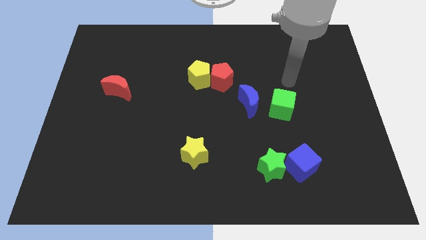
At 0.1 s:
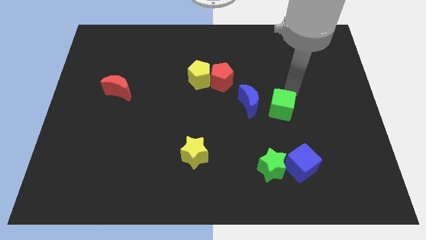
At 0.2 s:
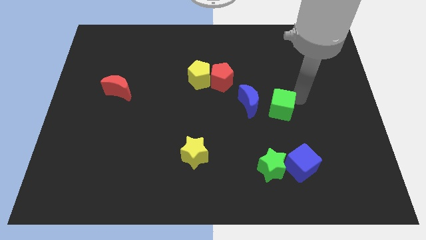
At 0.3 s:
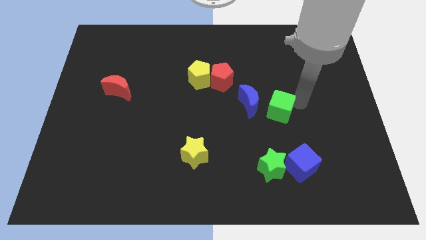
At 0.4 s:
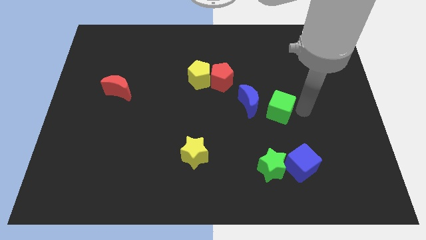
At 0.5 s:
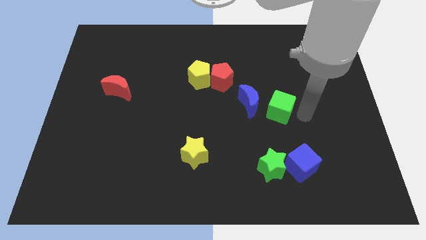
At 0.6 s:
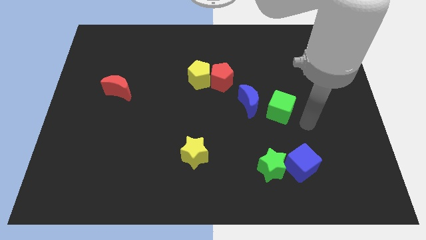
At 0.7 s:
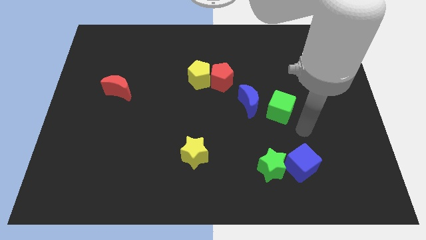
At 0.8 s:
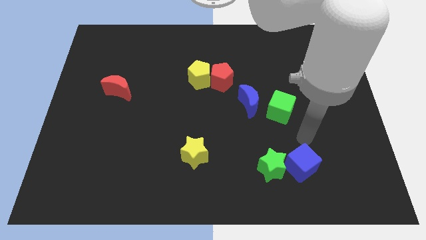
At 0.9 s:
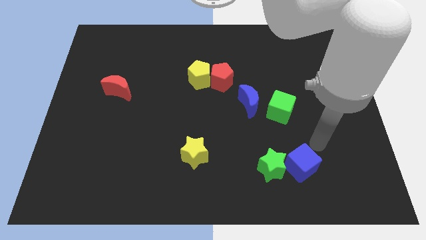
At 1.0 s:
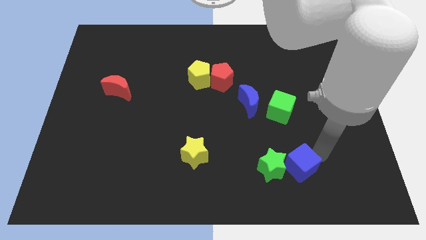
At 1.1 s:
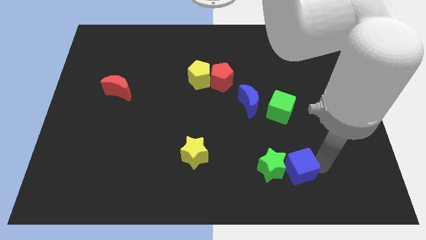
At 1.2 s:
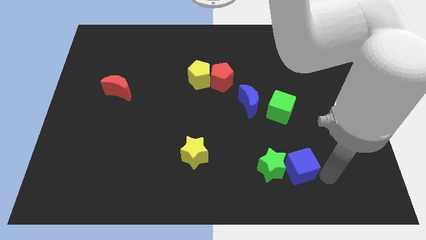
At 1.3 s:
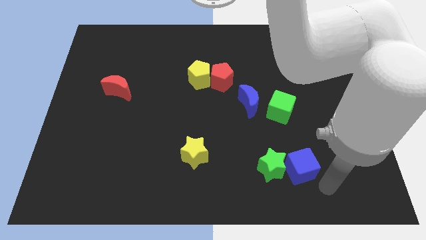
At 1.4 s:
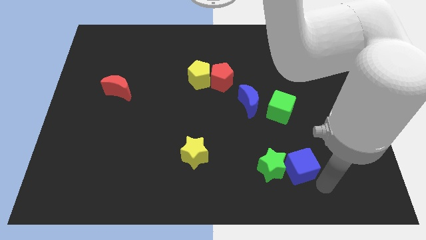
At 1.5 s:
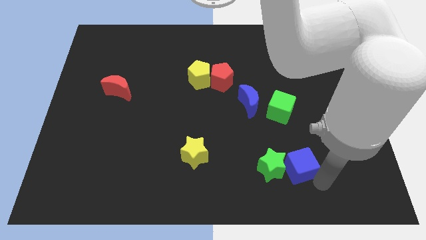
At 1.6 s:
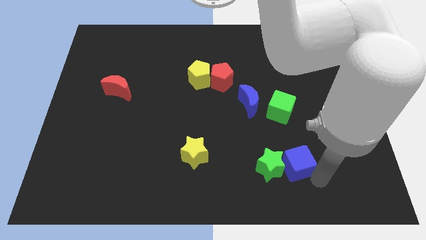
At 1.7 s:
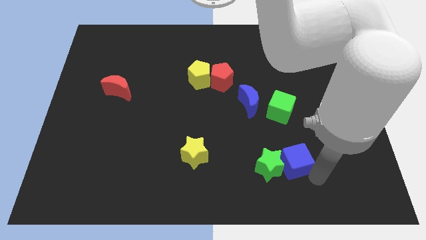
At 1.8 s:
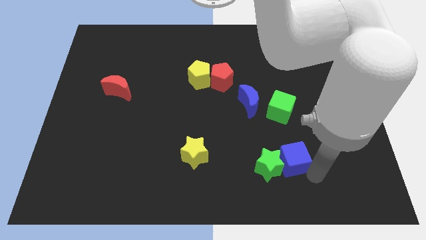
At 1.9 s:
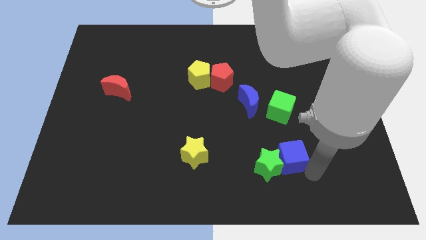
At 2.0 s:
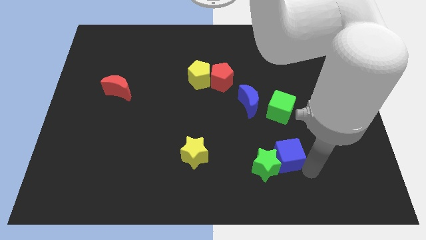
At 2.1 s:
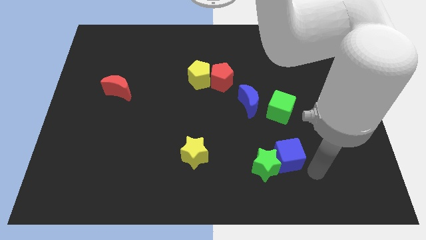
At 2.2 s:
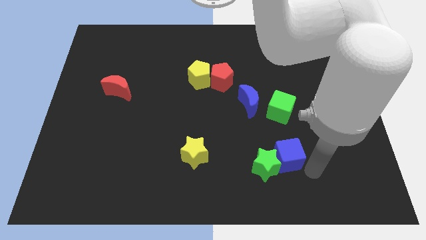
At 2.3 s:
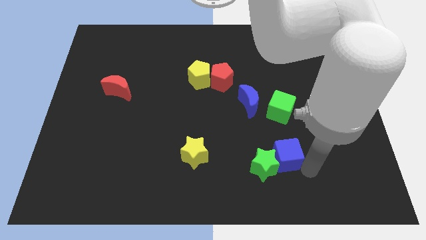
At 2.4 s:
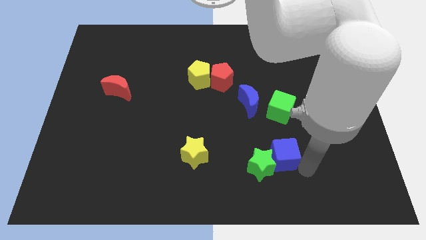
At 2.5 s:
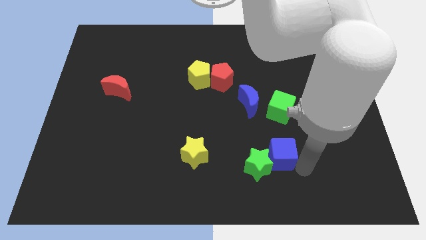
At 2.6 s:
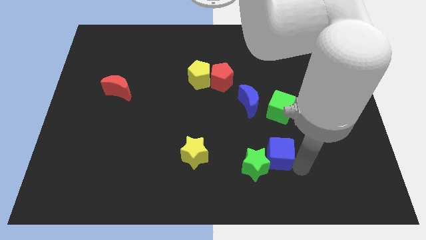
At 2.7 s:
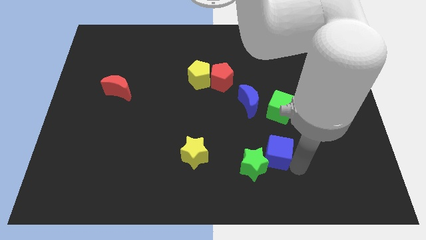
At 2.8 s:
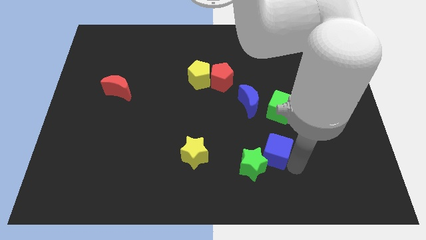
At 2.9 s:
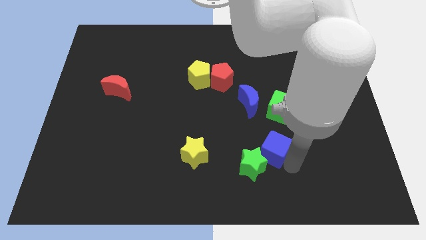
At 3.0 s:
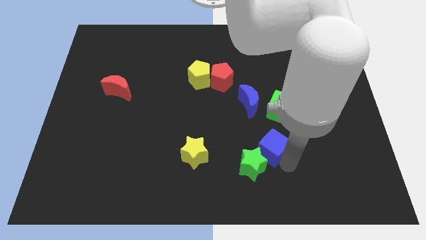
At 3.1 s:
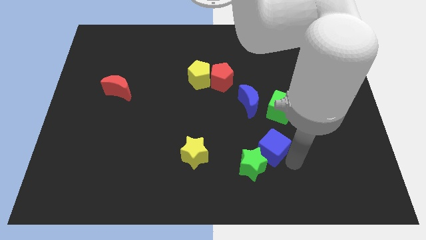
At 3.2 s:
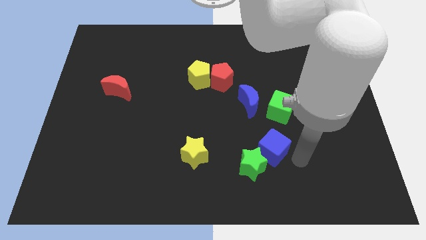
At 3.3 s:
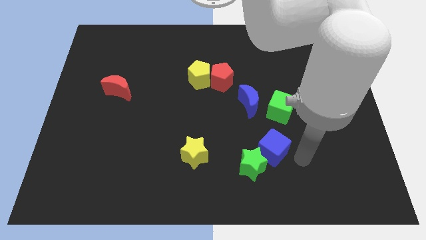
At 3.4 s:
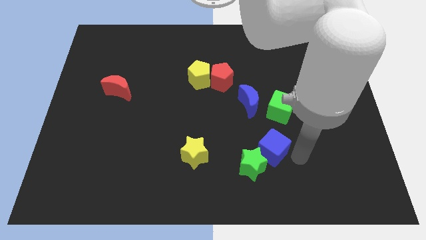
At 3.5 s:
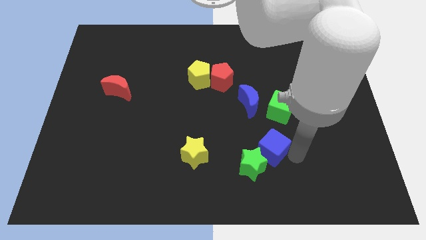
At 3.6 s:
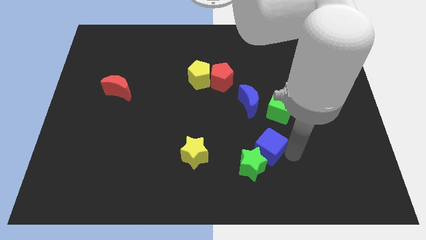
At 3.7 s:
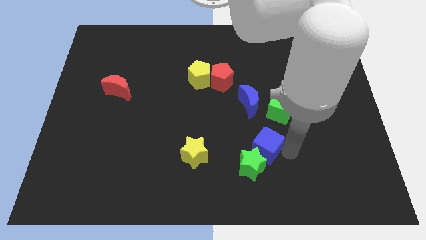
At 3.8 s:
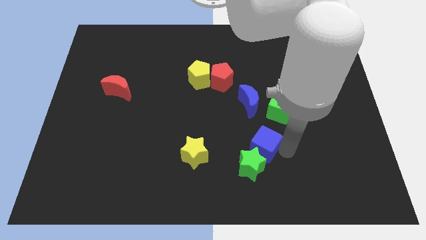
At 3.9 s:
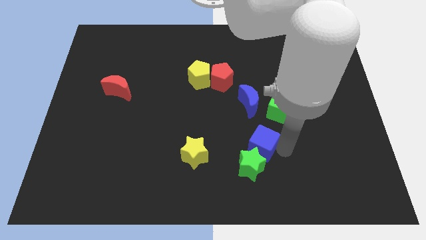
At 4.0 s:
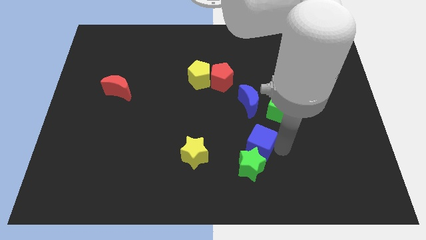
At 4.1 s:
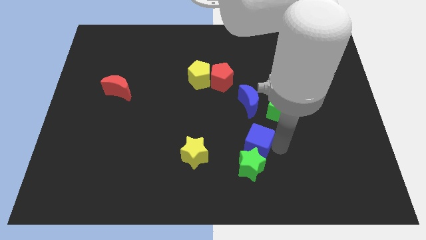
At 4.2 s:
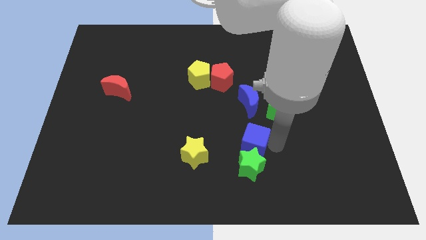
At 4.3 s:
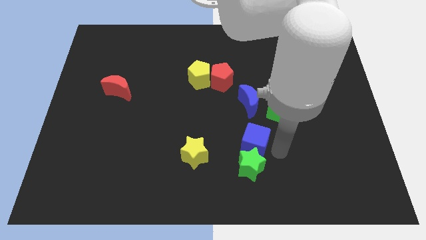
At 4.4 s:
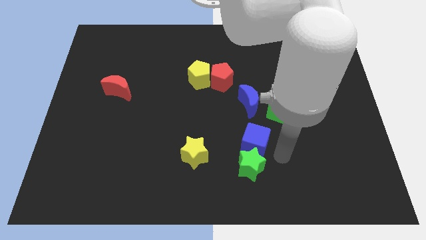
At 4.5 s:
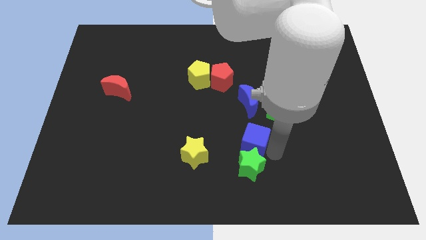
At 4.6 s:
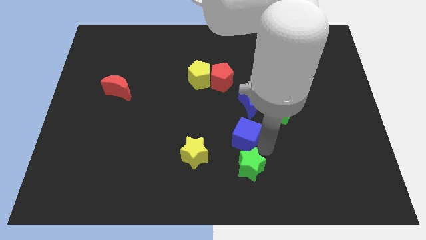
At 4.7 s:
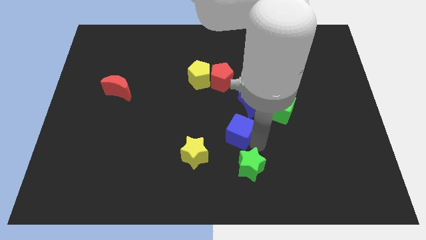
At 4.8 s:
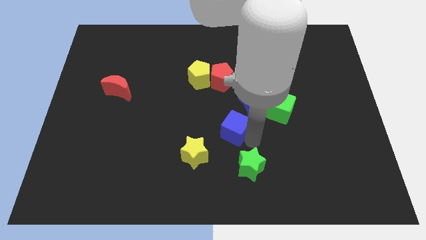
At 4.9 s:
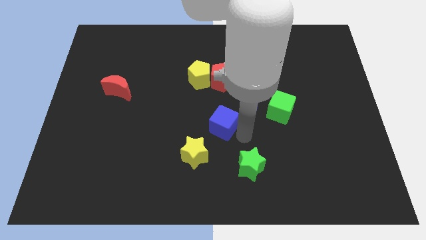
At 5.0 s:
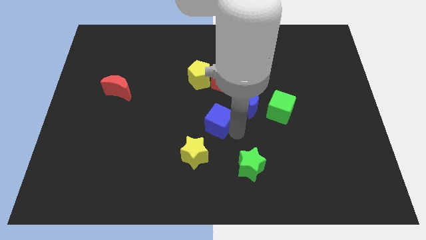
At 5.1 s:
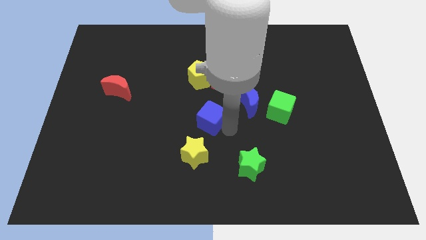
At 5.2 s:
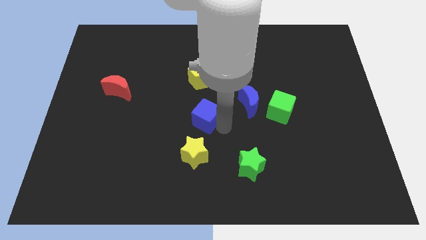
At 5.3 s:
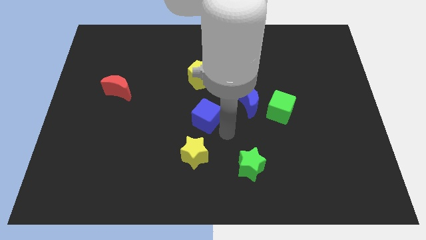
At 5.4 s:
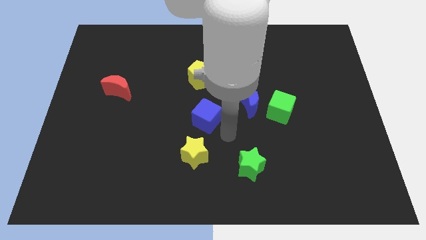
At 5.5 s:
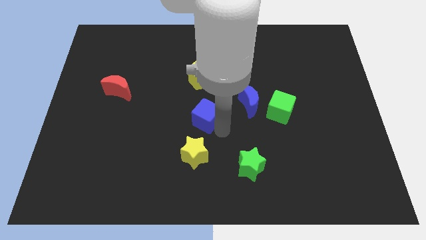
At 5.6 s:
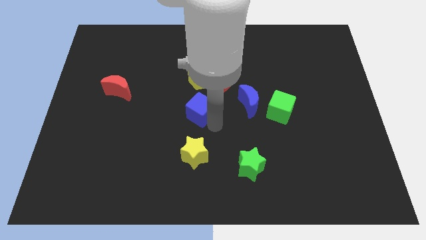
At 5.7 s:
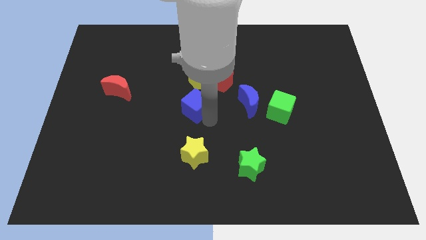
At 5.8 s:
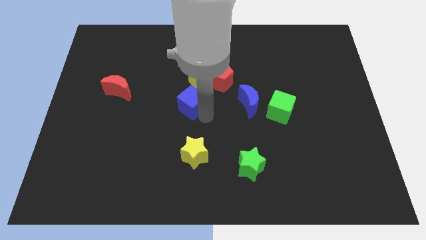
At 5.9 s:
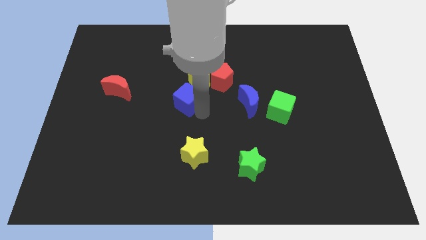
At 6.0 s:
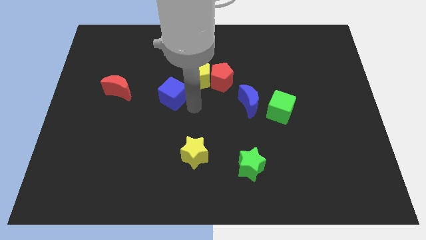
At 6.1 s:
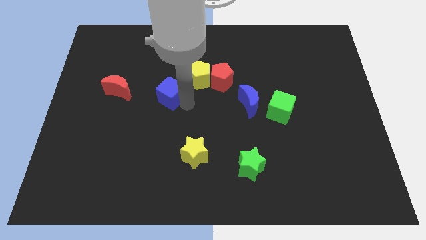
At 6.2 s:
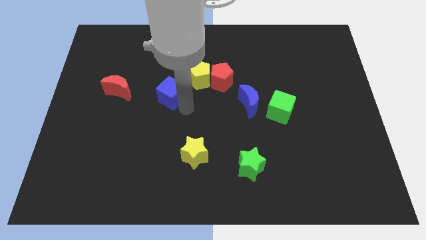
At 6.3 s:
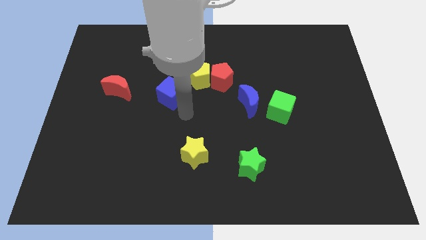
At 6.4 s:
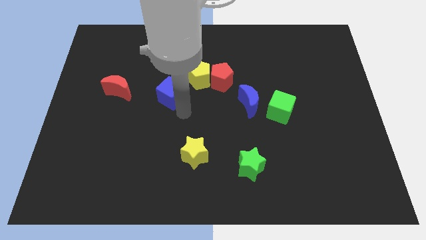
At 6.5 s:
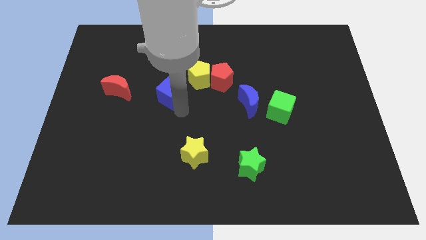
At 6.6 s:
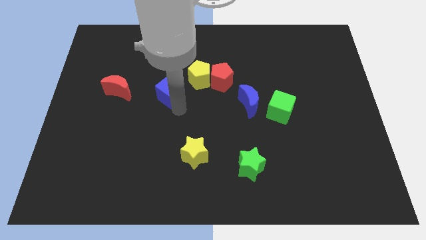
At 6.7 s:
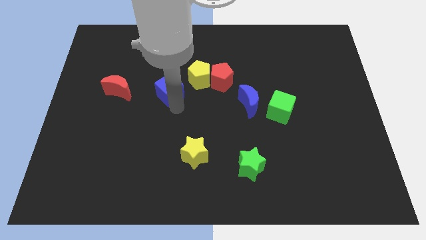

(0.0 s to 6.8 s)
push the blue cube just left of the yellow pentagon

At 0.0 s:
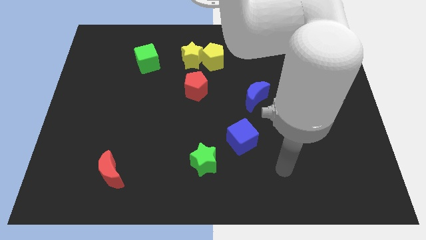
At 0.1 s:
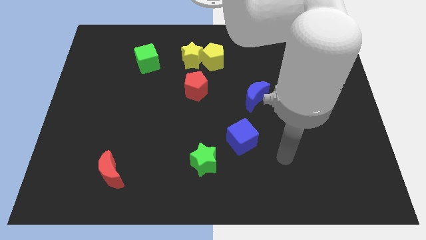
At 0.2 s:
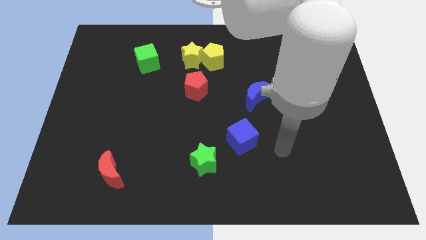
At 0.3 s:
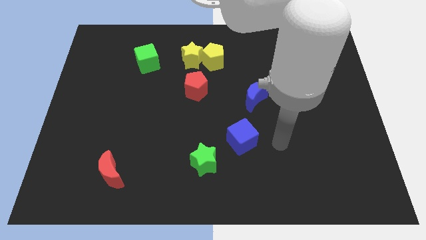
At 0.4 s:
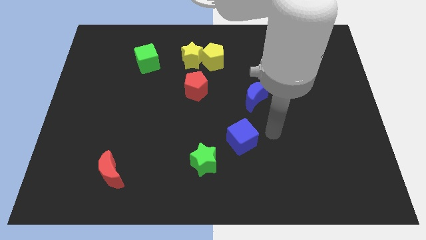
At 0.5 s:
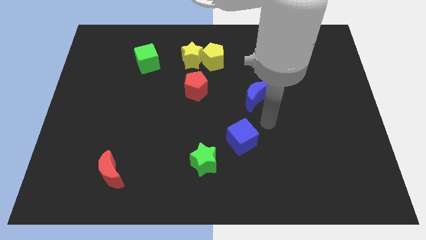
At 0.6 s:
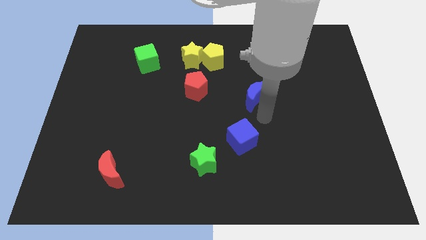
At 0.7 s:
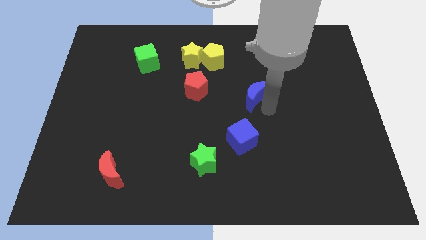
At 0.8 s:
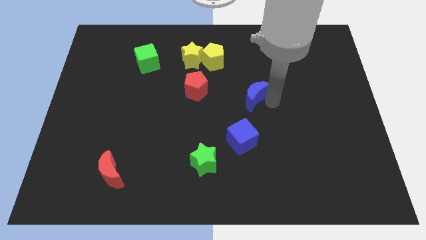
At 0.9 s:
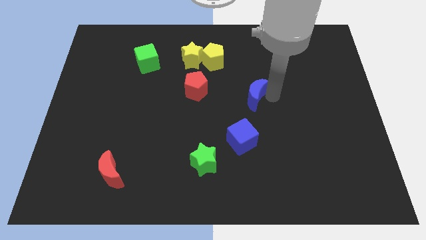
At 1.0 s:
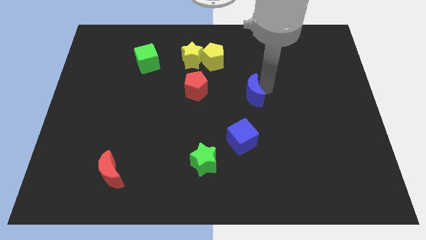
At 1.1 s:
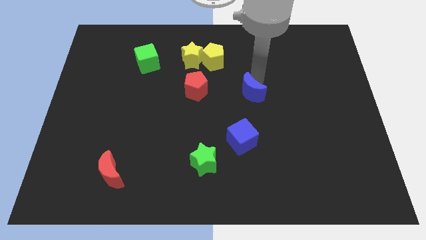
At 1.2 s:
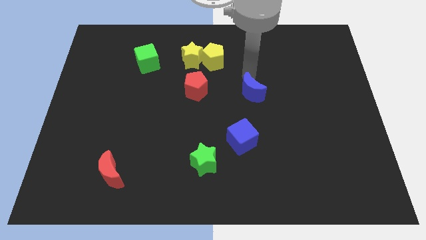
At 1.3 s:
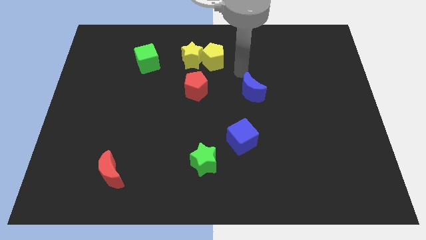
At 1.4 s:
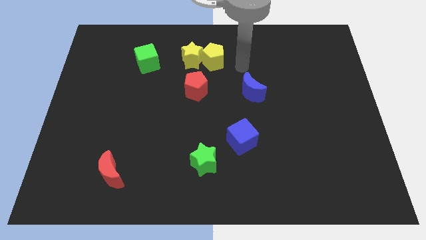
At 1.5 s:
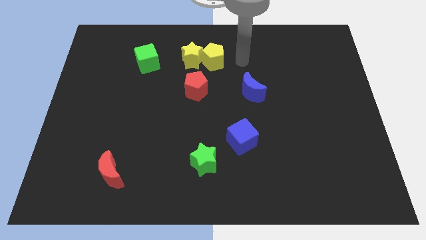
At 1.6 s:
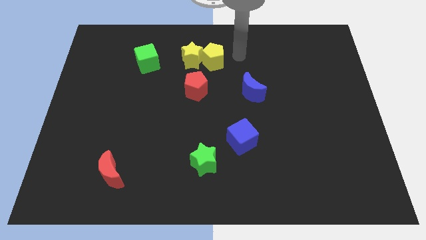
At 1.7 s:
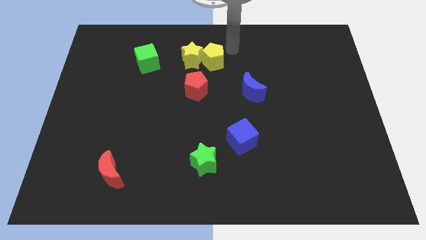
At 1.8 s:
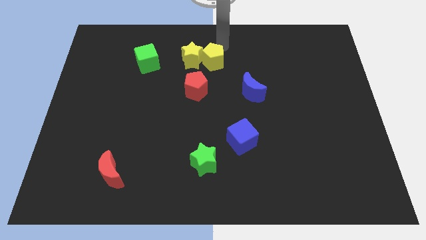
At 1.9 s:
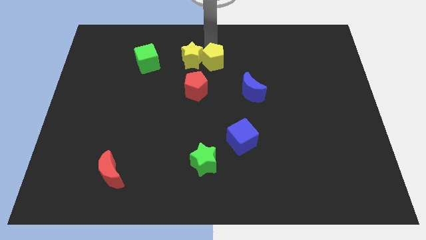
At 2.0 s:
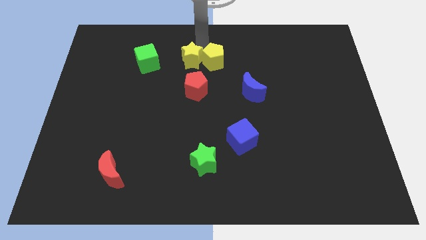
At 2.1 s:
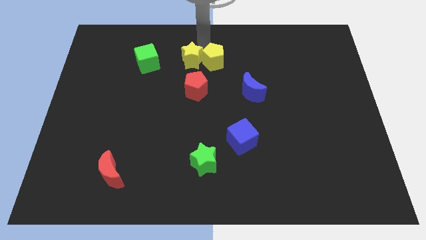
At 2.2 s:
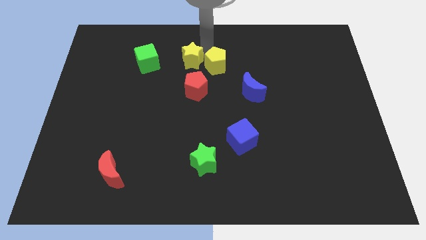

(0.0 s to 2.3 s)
push the yellow pentagon to the top left of the blue moon
